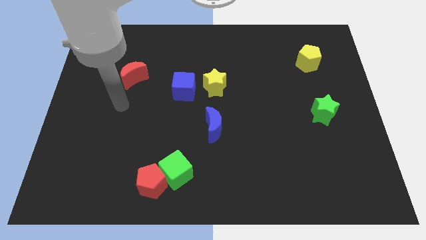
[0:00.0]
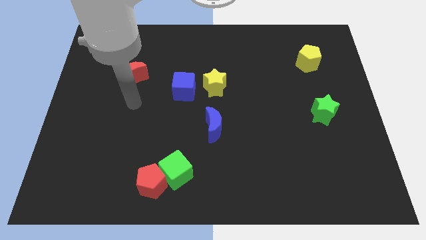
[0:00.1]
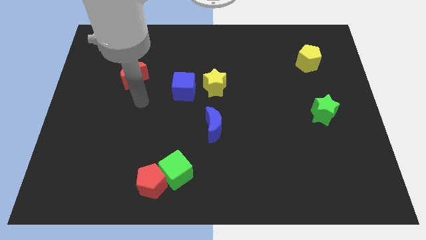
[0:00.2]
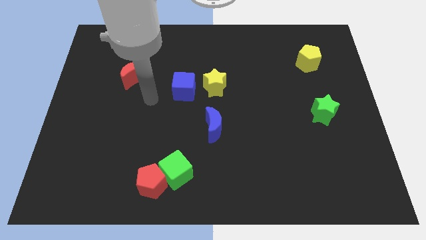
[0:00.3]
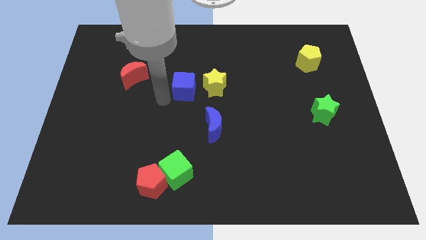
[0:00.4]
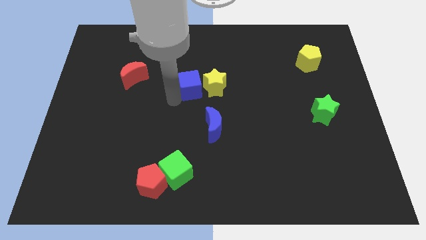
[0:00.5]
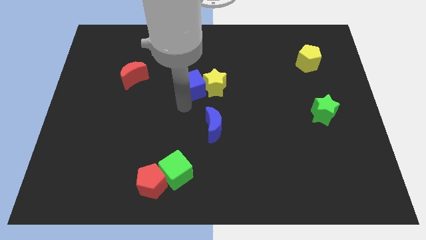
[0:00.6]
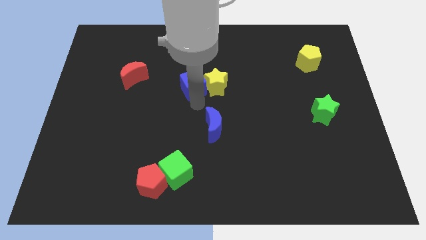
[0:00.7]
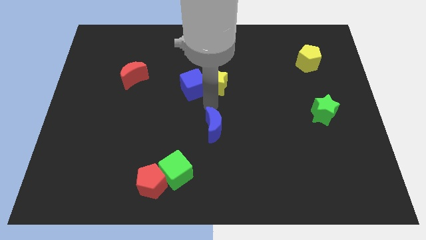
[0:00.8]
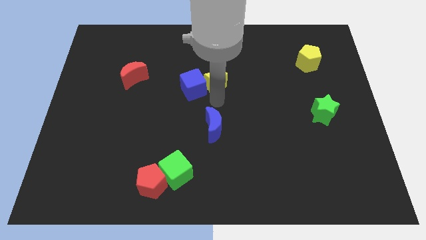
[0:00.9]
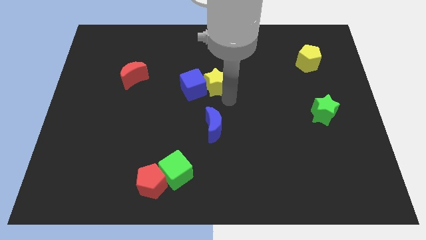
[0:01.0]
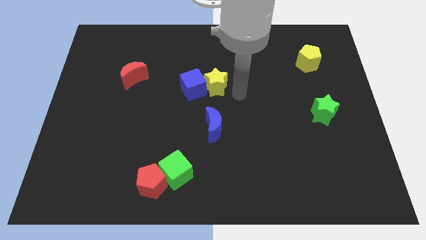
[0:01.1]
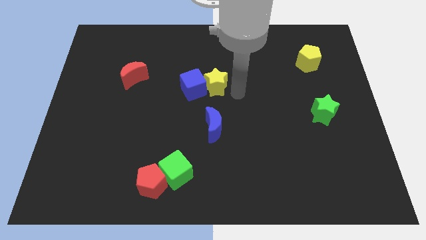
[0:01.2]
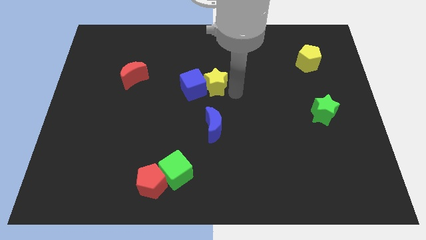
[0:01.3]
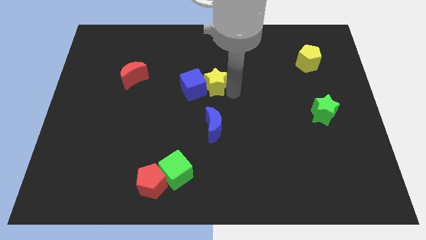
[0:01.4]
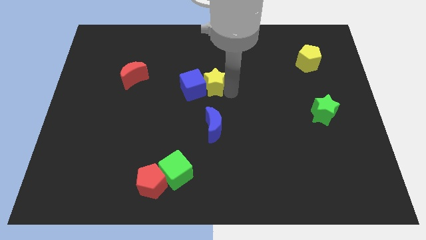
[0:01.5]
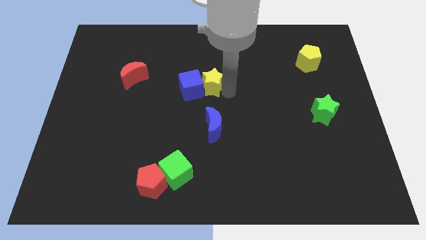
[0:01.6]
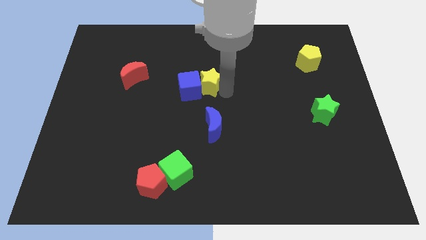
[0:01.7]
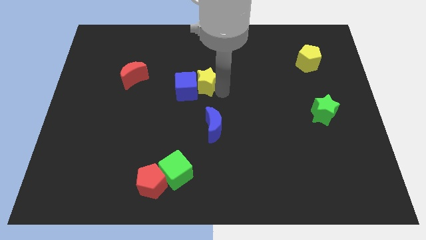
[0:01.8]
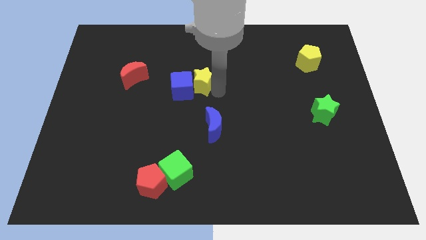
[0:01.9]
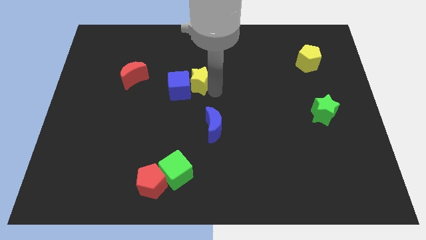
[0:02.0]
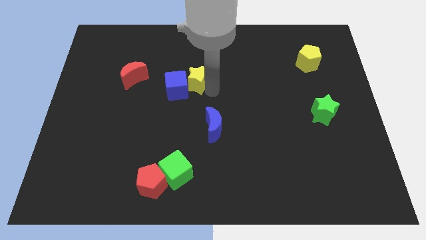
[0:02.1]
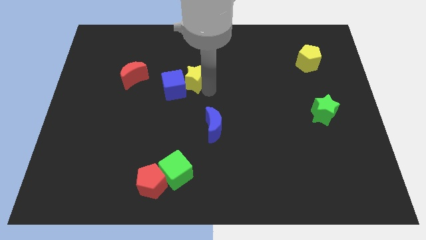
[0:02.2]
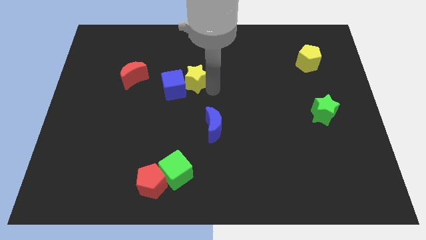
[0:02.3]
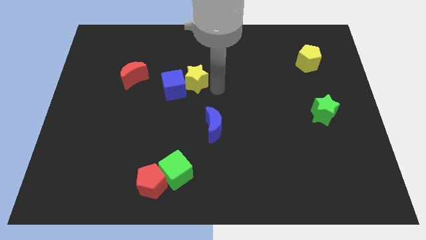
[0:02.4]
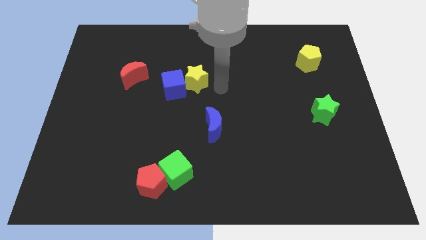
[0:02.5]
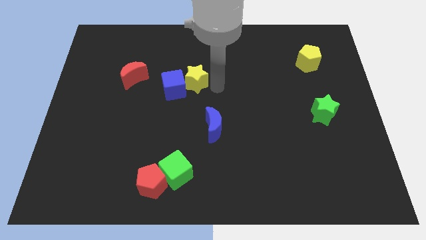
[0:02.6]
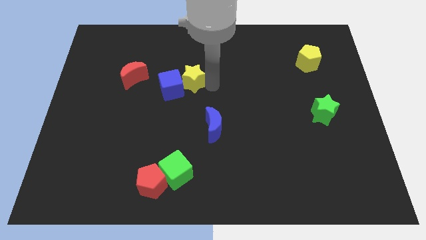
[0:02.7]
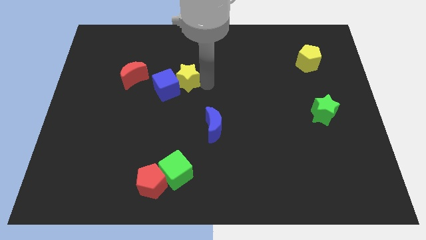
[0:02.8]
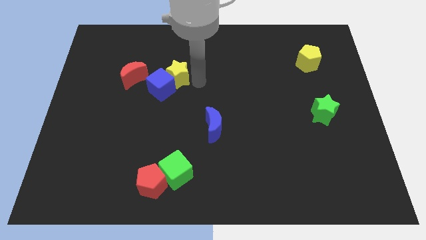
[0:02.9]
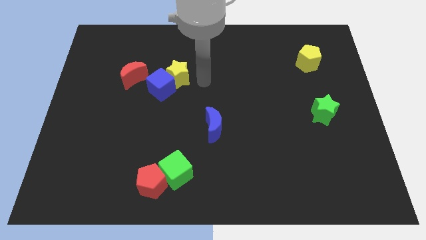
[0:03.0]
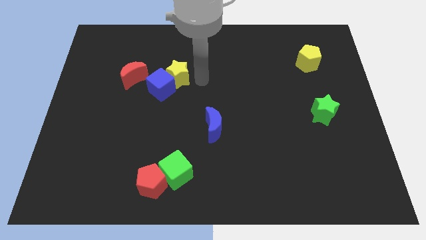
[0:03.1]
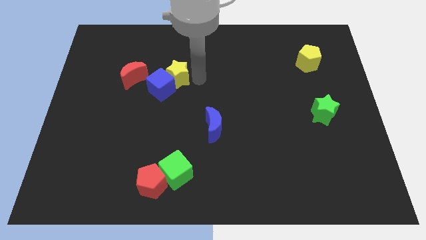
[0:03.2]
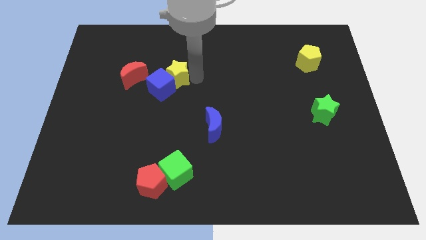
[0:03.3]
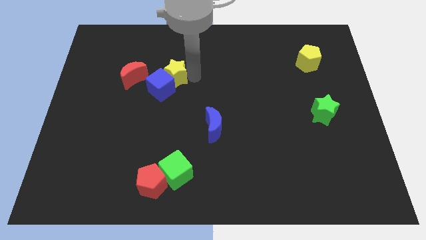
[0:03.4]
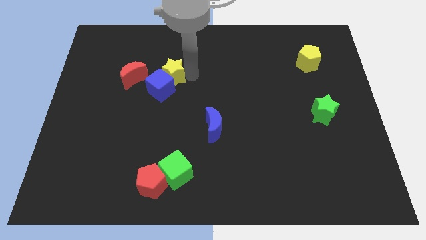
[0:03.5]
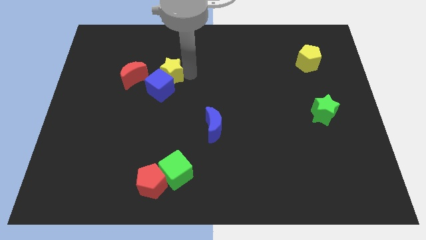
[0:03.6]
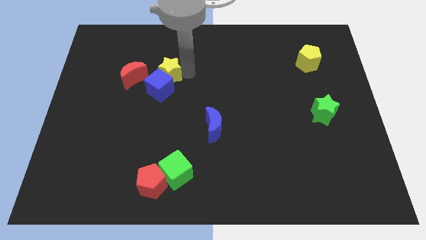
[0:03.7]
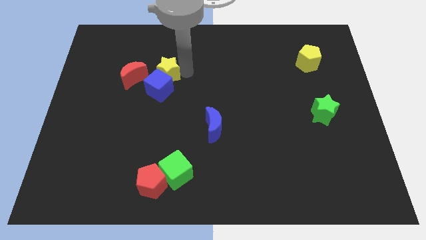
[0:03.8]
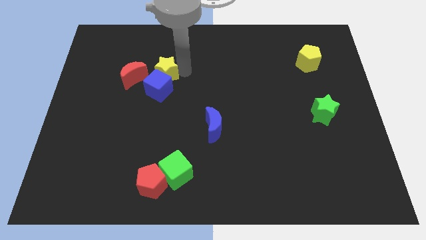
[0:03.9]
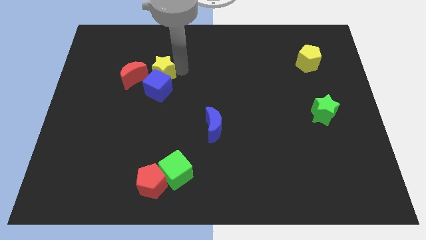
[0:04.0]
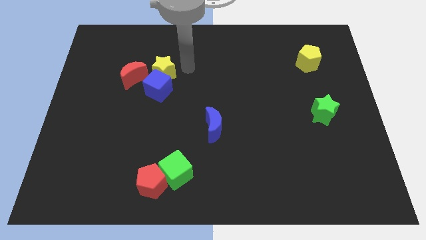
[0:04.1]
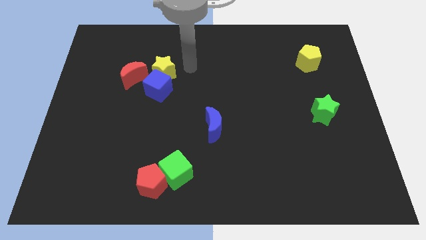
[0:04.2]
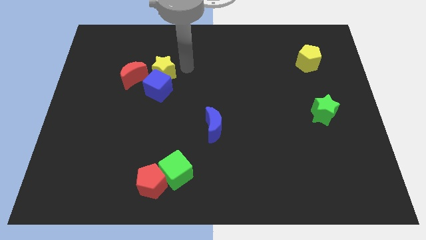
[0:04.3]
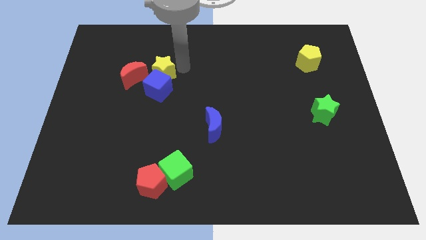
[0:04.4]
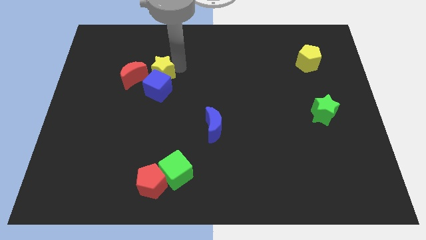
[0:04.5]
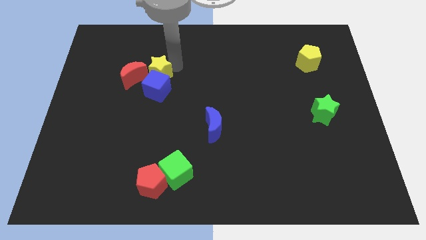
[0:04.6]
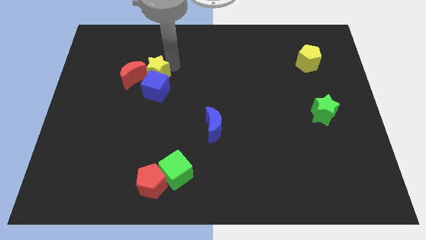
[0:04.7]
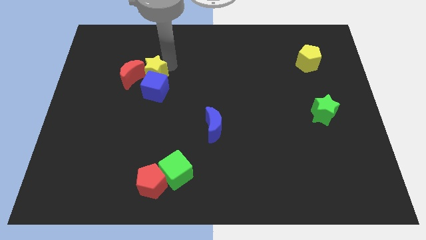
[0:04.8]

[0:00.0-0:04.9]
slide the yellow star next to the red moon

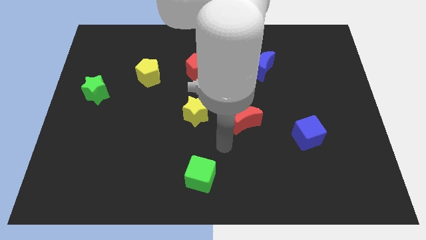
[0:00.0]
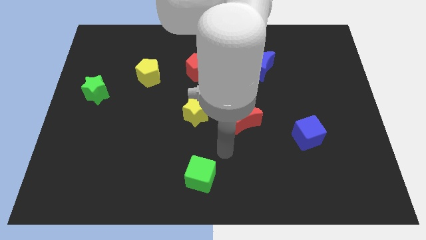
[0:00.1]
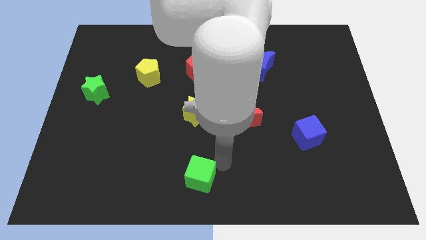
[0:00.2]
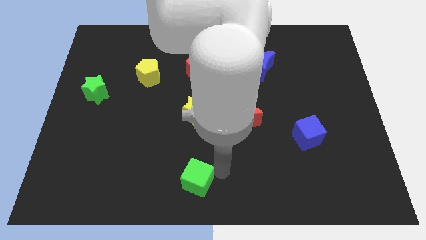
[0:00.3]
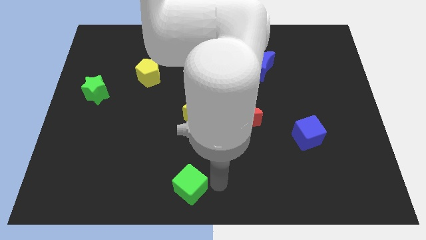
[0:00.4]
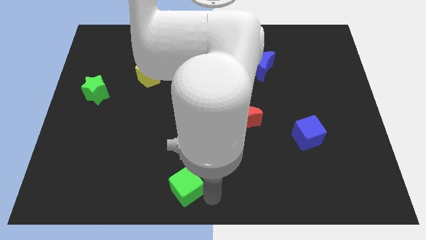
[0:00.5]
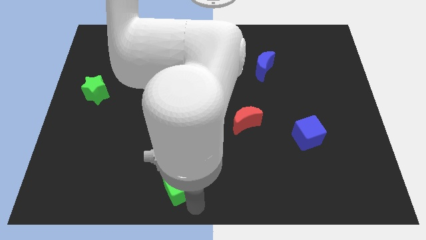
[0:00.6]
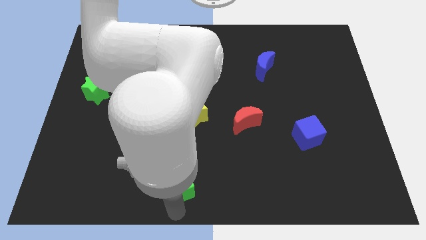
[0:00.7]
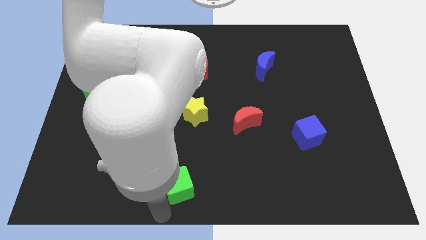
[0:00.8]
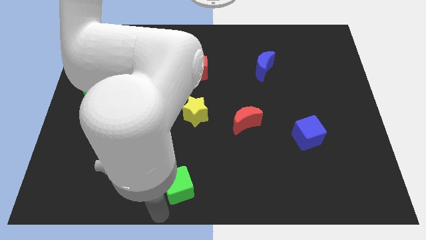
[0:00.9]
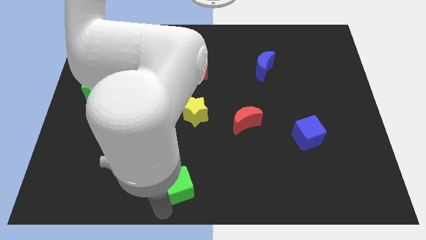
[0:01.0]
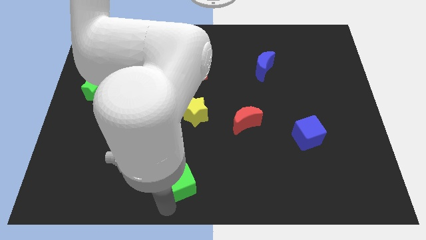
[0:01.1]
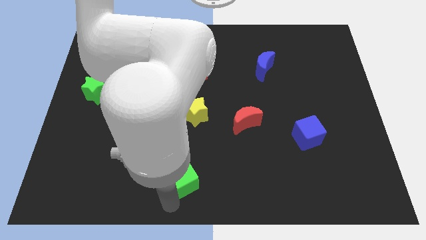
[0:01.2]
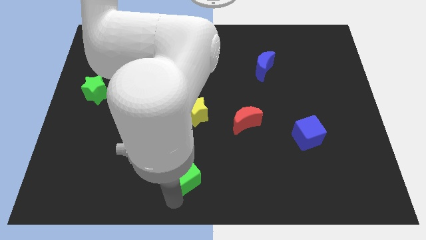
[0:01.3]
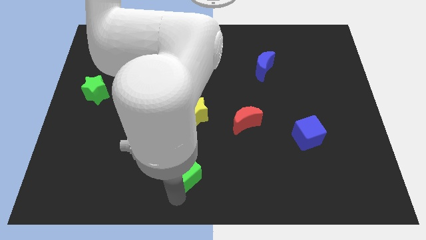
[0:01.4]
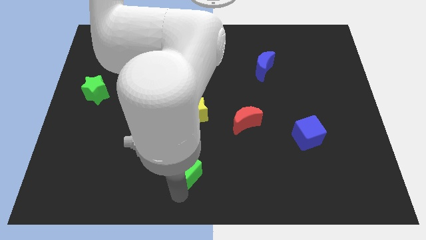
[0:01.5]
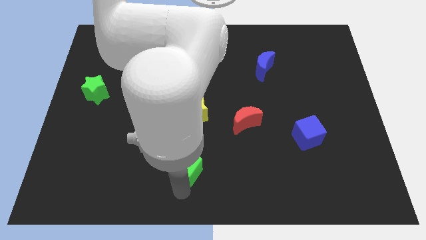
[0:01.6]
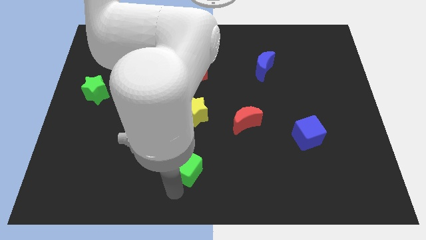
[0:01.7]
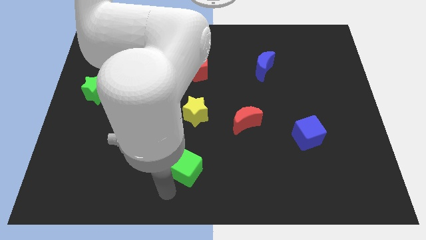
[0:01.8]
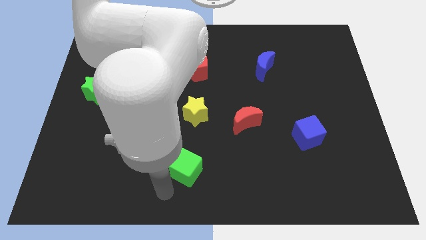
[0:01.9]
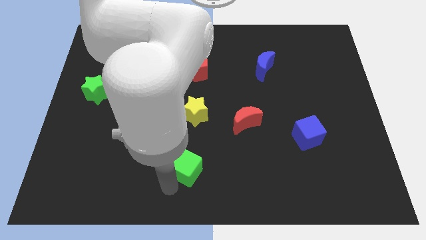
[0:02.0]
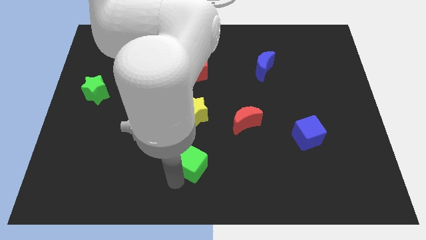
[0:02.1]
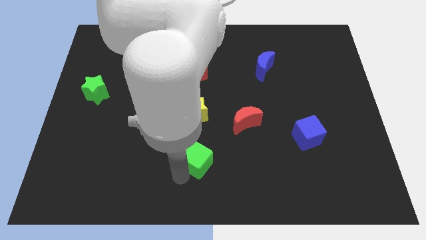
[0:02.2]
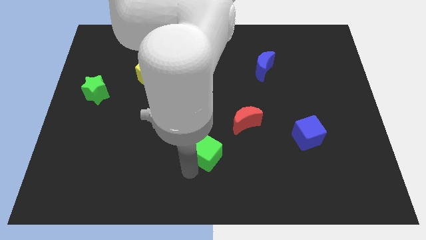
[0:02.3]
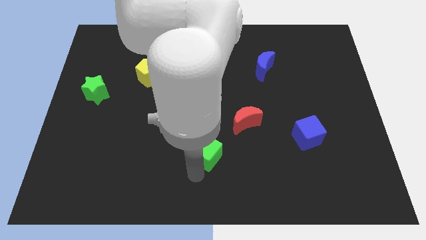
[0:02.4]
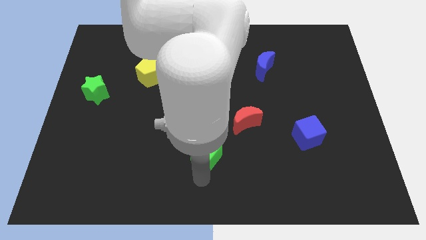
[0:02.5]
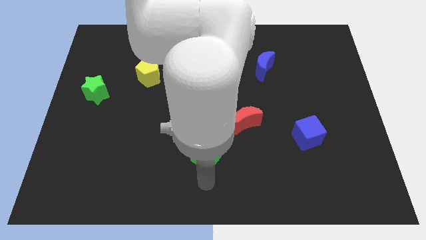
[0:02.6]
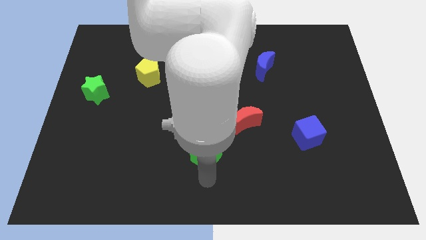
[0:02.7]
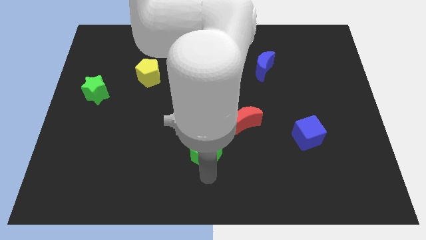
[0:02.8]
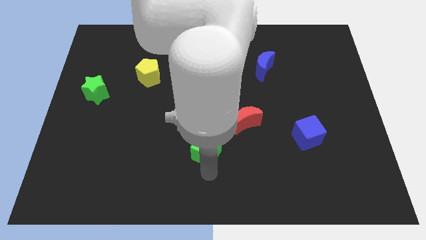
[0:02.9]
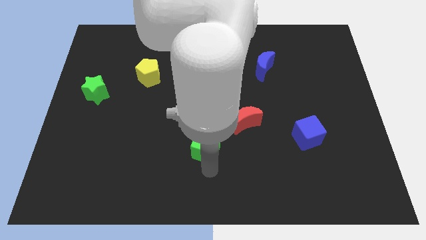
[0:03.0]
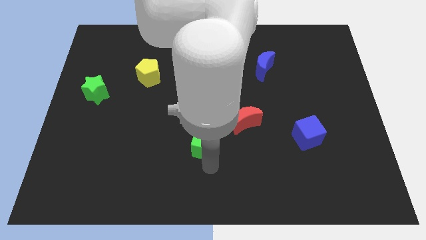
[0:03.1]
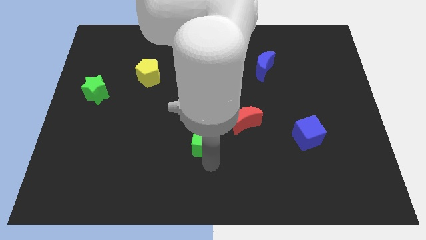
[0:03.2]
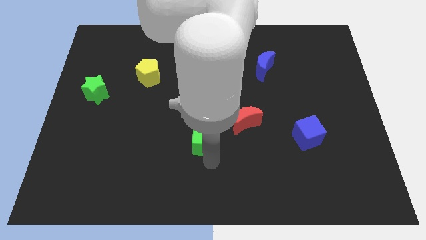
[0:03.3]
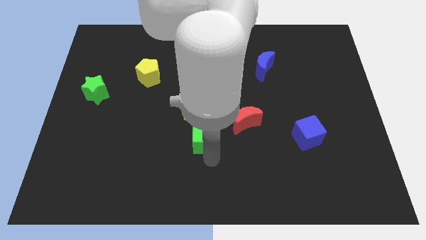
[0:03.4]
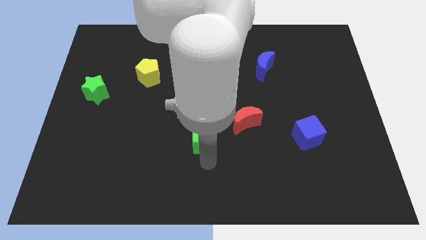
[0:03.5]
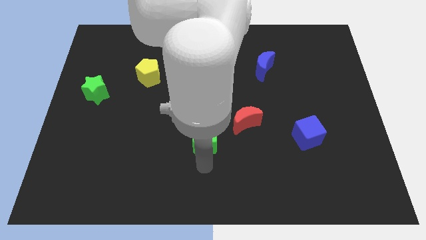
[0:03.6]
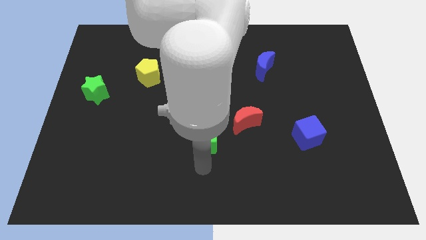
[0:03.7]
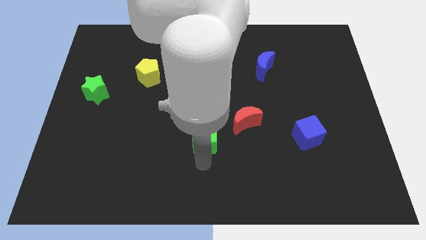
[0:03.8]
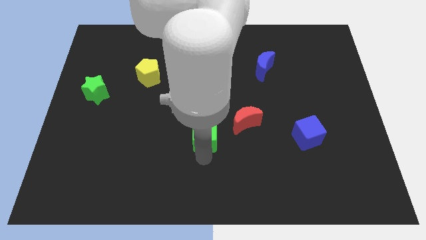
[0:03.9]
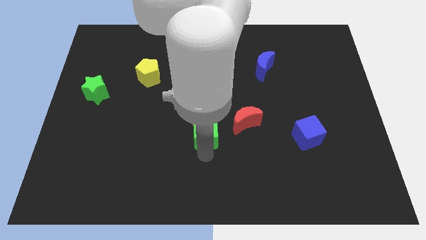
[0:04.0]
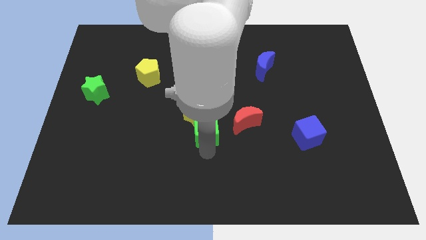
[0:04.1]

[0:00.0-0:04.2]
put the green cube towards the yellow star
